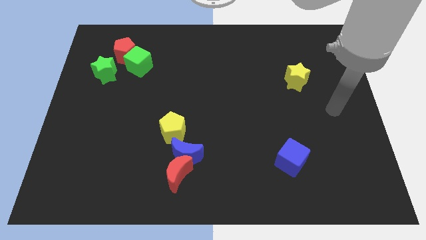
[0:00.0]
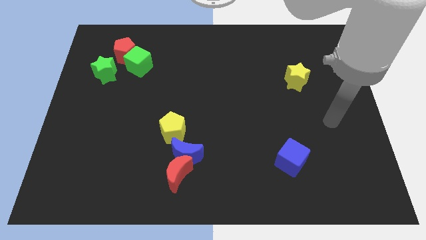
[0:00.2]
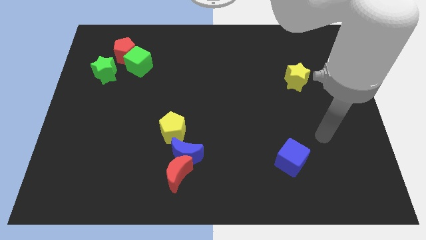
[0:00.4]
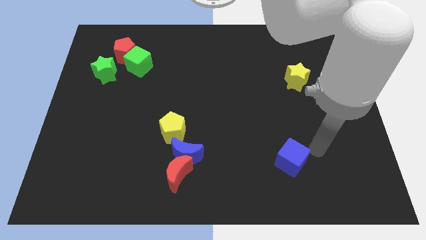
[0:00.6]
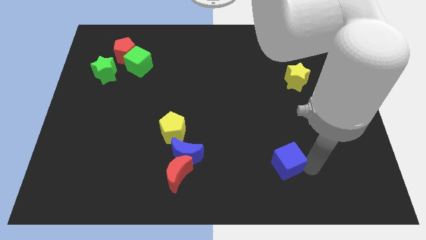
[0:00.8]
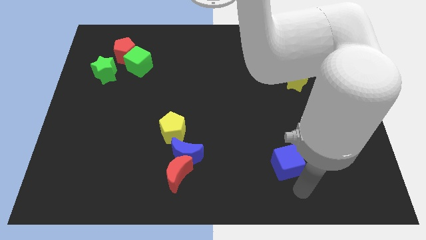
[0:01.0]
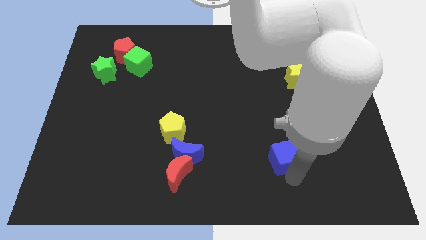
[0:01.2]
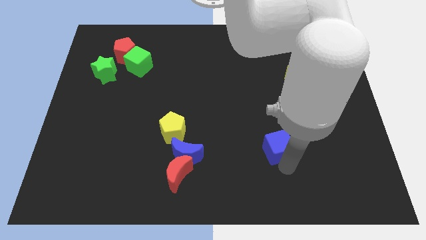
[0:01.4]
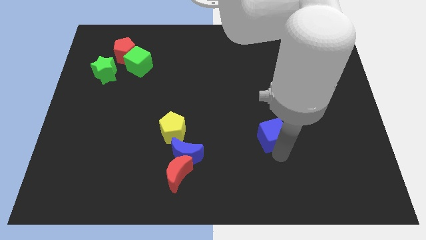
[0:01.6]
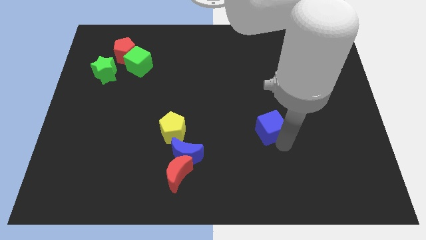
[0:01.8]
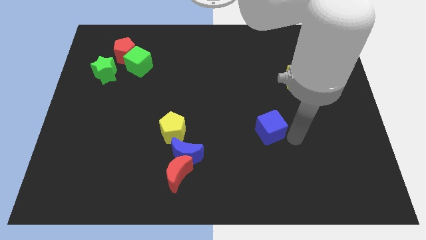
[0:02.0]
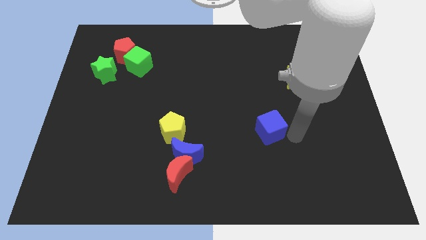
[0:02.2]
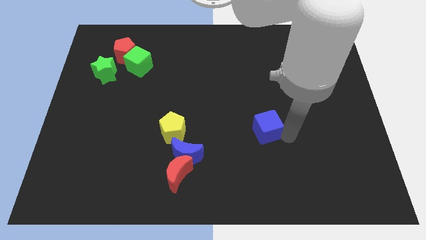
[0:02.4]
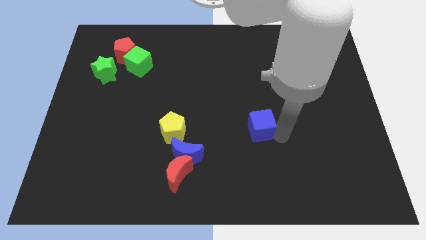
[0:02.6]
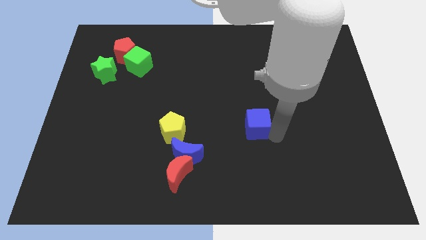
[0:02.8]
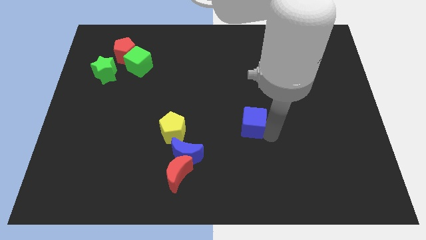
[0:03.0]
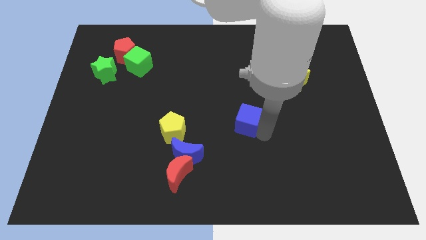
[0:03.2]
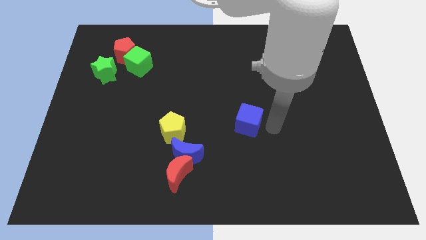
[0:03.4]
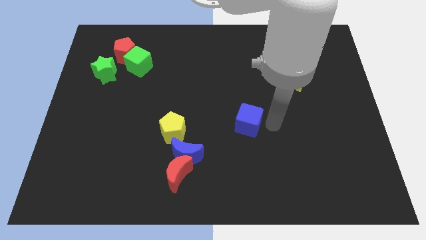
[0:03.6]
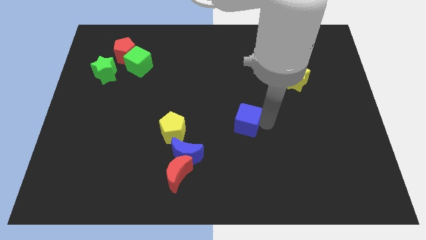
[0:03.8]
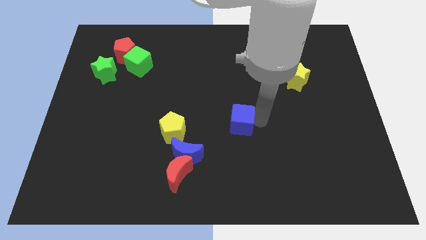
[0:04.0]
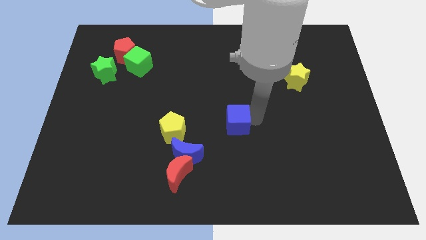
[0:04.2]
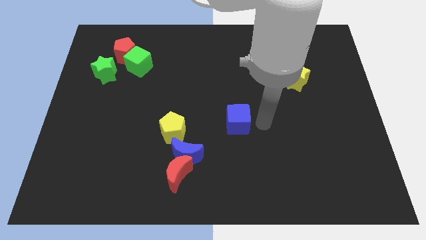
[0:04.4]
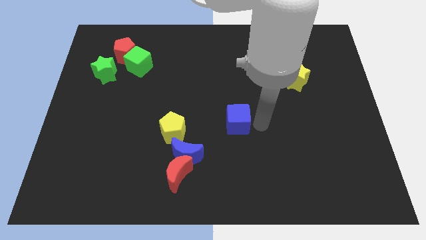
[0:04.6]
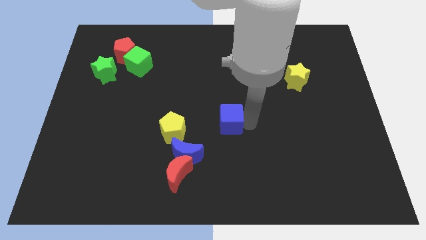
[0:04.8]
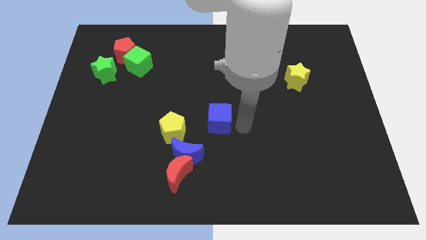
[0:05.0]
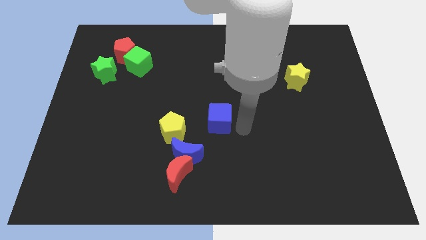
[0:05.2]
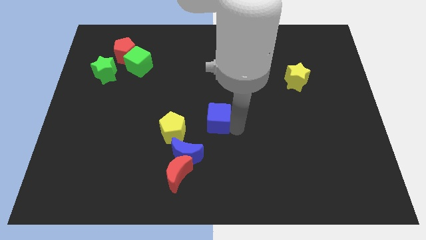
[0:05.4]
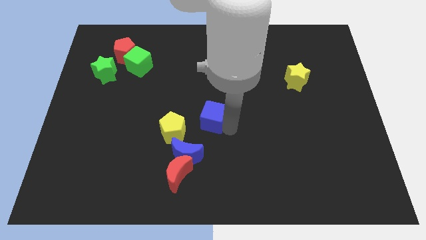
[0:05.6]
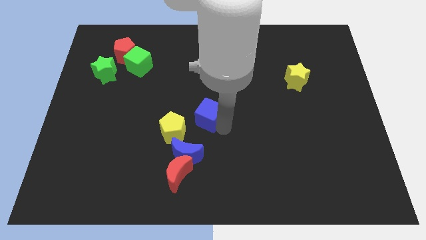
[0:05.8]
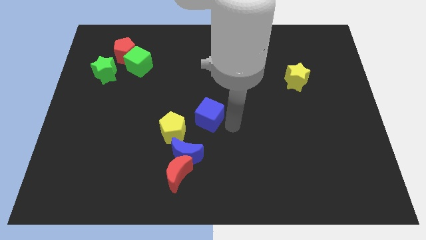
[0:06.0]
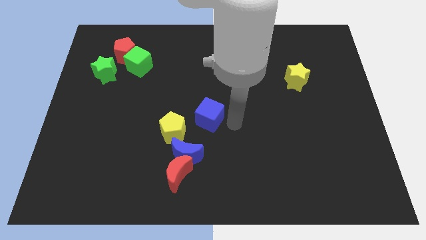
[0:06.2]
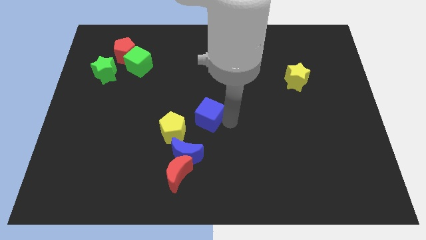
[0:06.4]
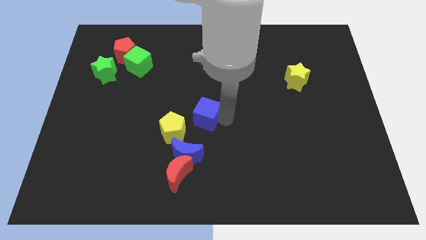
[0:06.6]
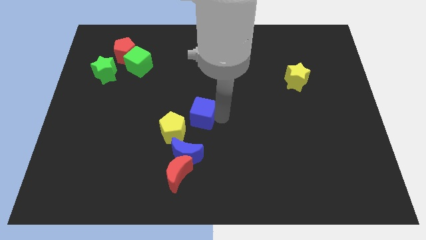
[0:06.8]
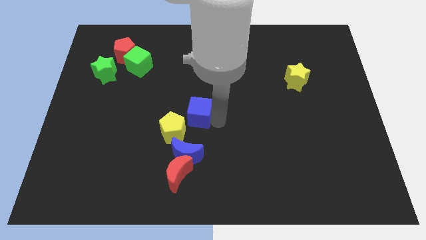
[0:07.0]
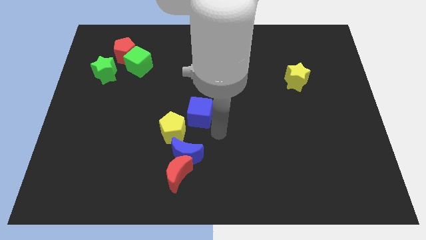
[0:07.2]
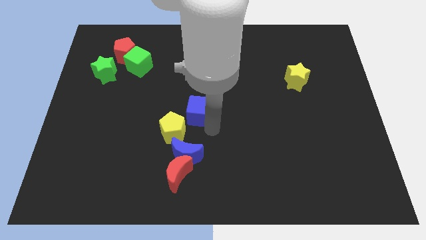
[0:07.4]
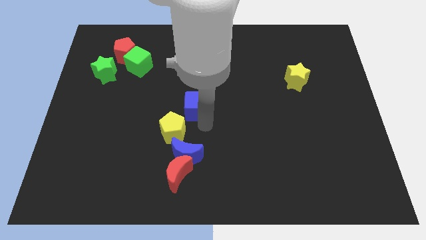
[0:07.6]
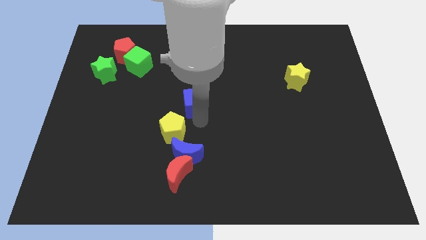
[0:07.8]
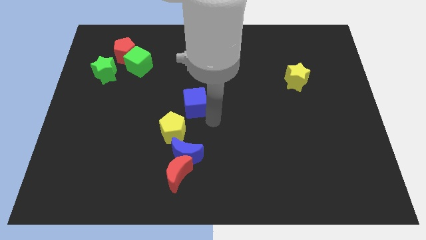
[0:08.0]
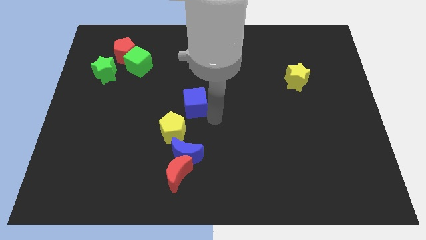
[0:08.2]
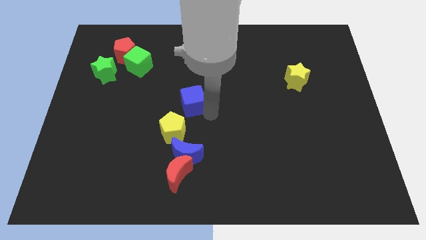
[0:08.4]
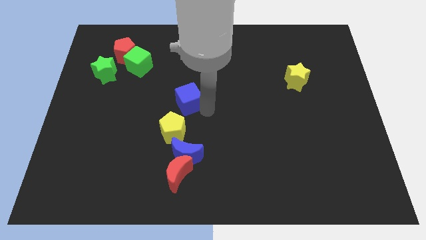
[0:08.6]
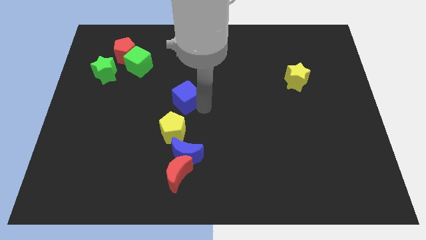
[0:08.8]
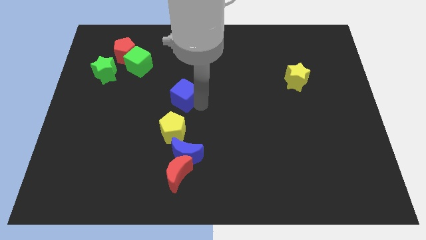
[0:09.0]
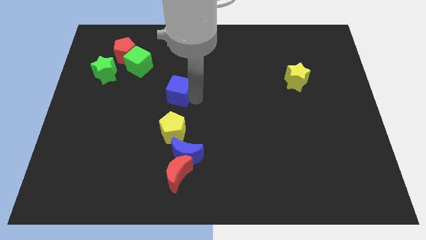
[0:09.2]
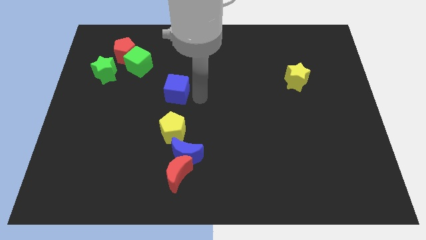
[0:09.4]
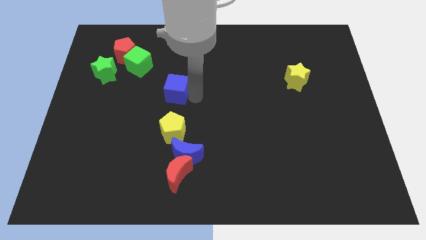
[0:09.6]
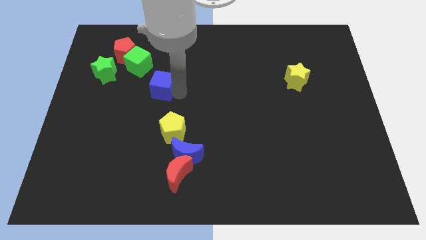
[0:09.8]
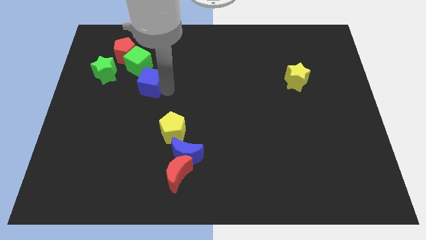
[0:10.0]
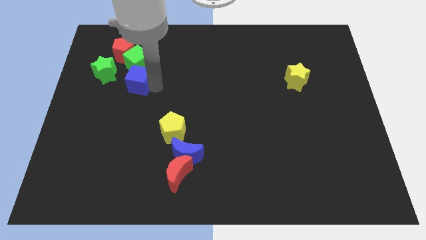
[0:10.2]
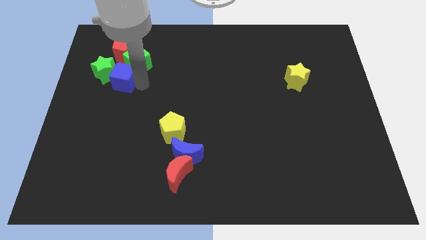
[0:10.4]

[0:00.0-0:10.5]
move the blue cube close to the green star

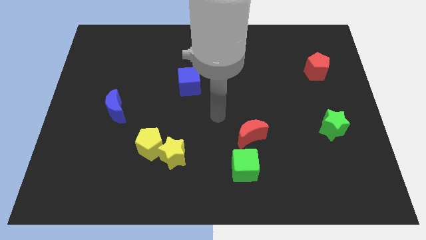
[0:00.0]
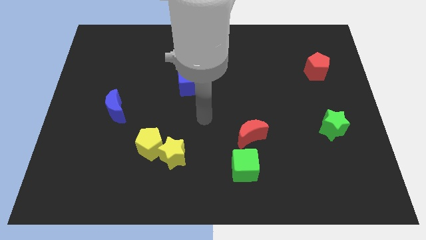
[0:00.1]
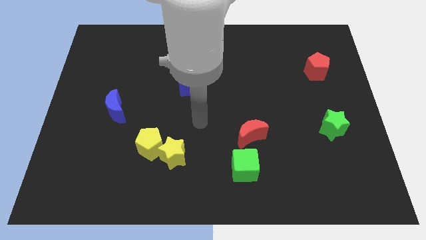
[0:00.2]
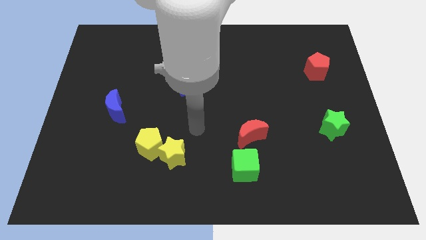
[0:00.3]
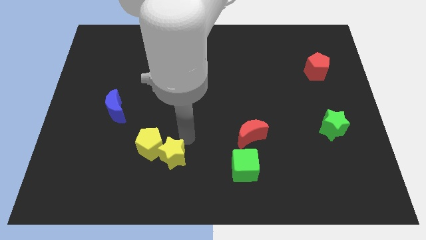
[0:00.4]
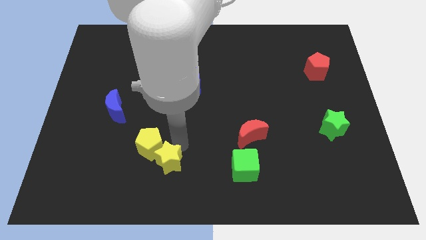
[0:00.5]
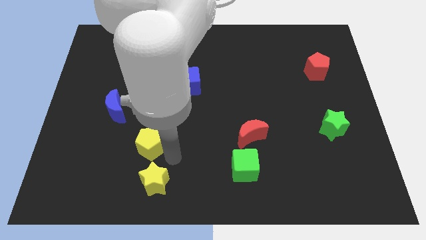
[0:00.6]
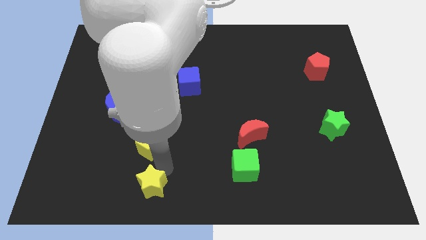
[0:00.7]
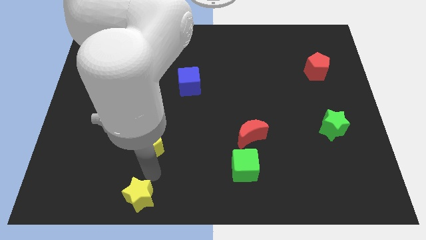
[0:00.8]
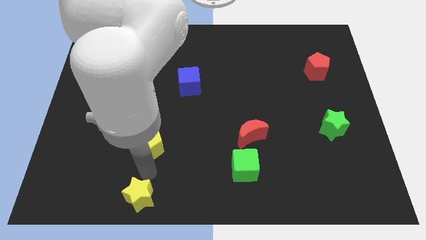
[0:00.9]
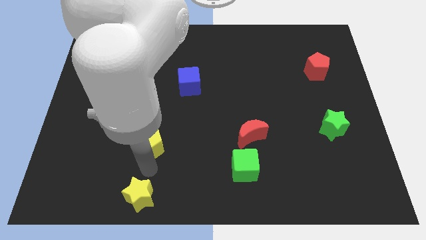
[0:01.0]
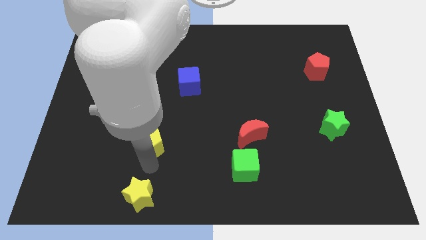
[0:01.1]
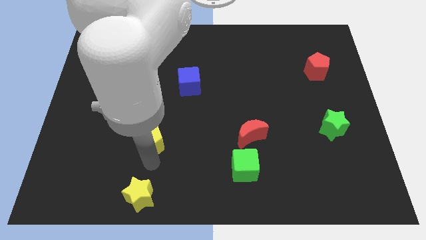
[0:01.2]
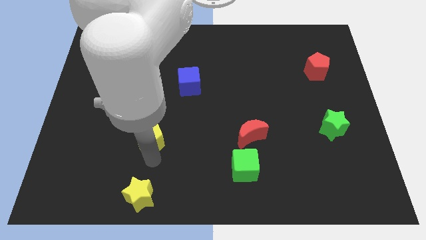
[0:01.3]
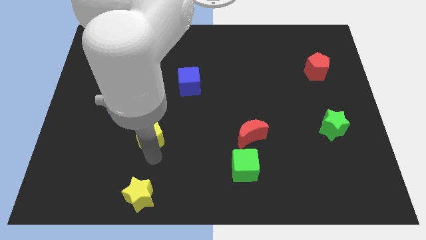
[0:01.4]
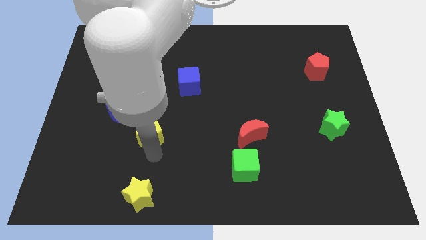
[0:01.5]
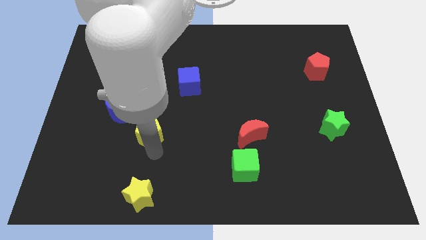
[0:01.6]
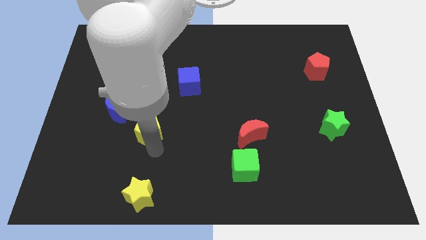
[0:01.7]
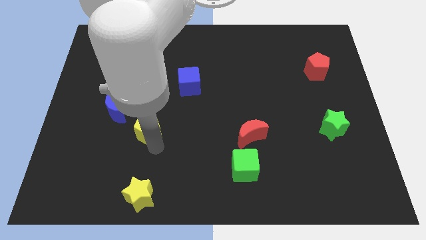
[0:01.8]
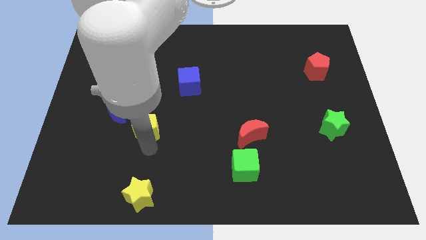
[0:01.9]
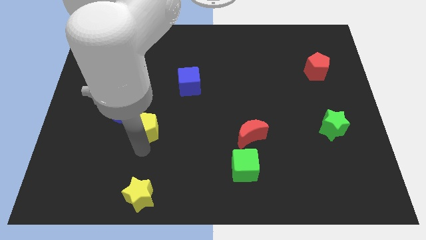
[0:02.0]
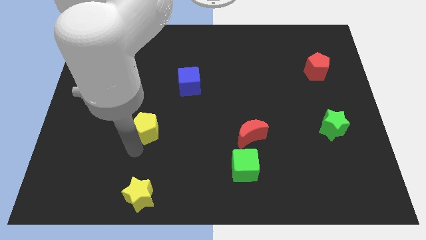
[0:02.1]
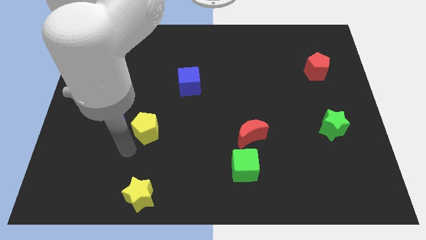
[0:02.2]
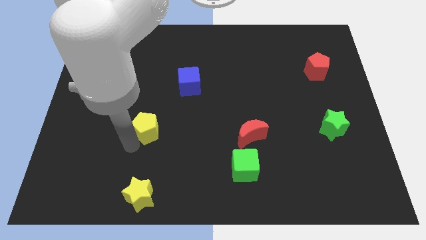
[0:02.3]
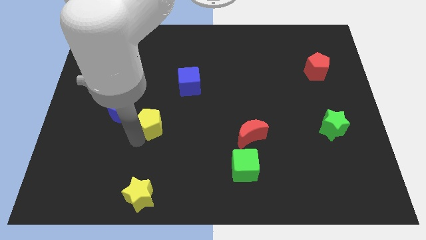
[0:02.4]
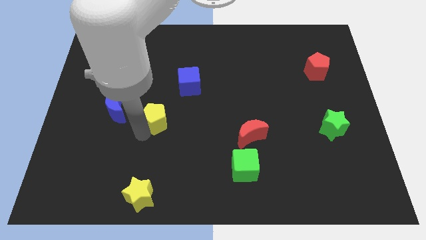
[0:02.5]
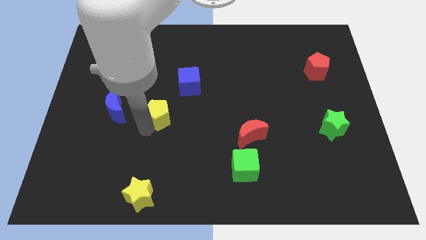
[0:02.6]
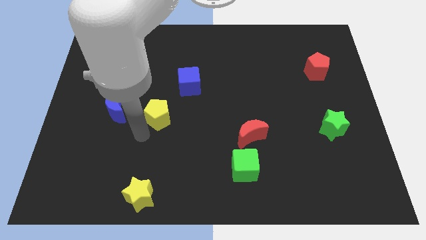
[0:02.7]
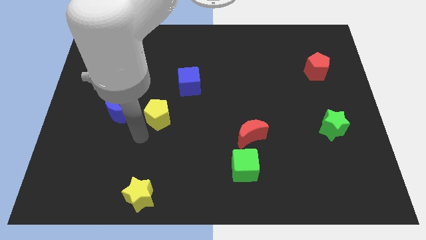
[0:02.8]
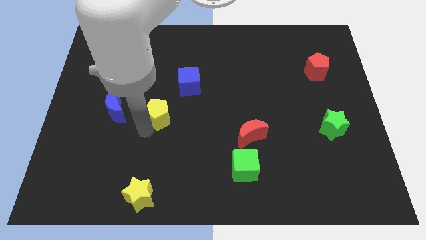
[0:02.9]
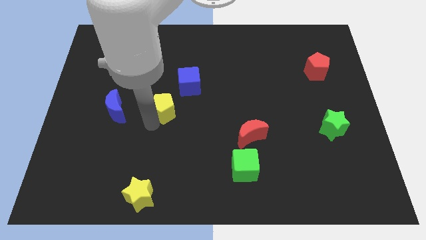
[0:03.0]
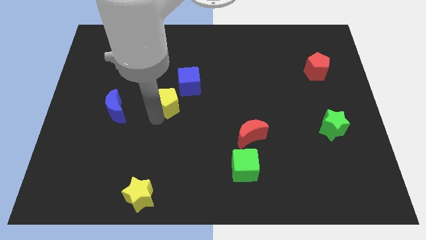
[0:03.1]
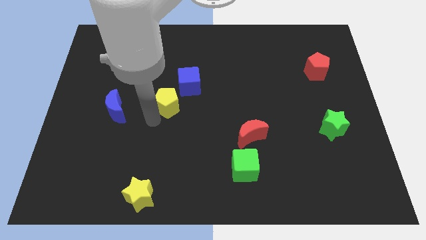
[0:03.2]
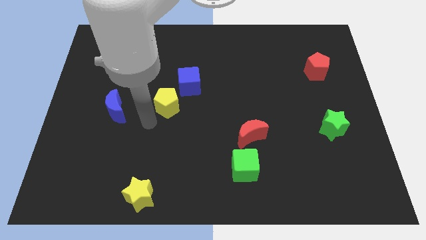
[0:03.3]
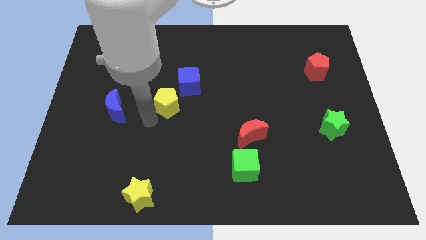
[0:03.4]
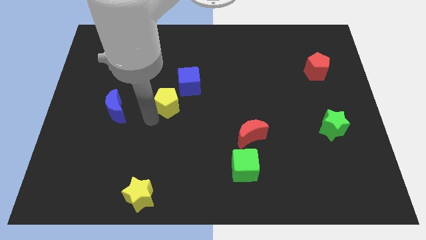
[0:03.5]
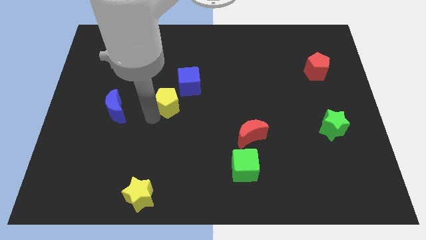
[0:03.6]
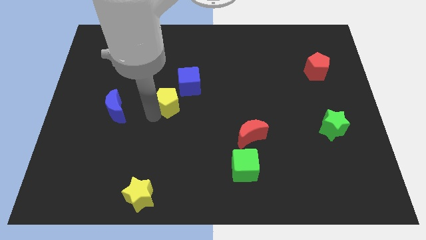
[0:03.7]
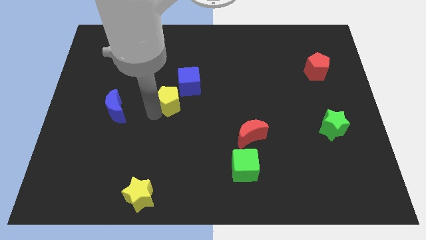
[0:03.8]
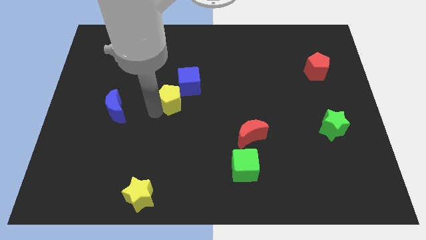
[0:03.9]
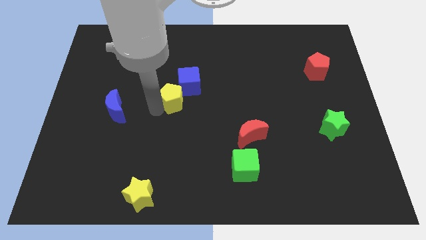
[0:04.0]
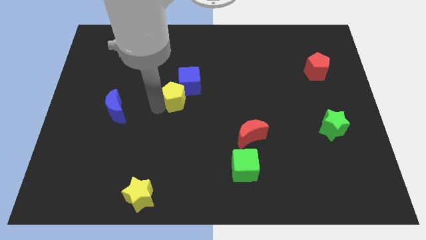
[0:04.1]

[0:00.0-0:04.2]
put the yellow pentagon next to the blue cube
